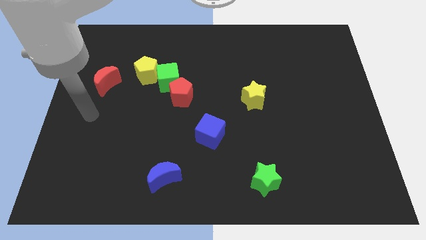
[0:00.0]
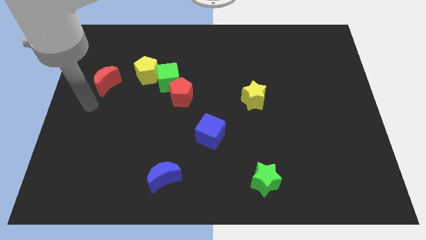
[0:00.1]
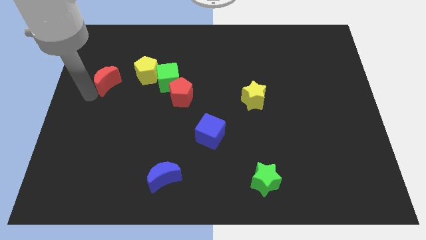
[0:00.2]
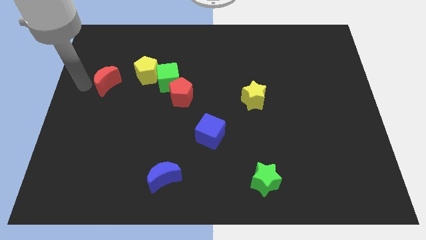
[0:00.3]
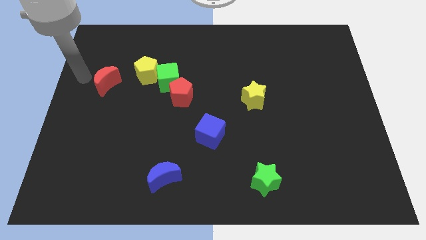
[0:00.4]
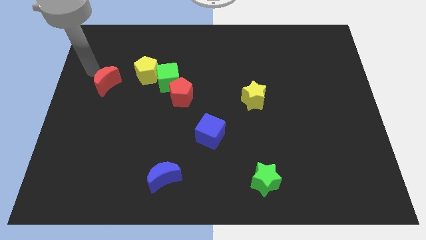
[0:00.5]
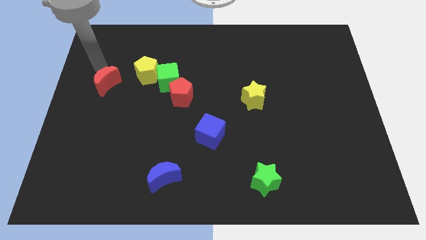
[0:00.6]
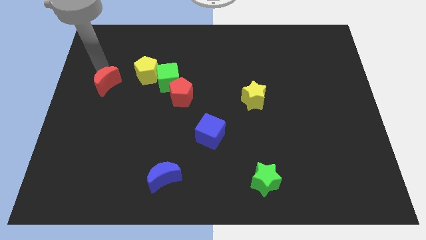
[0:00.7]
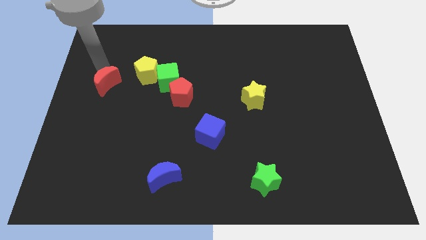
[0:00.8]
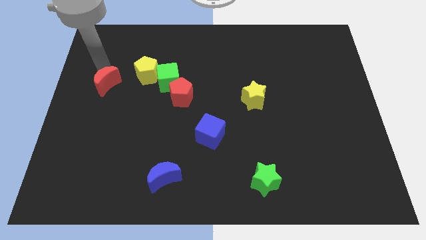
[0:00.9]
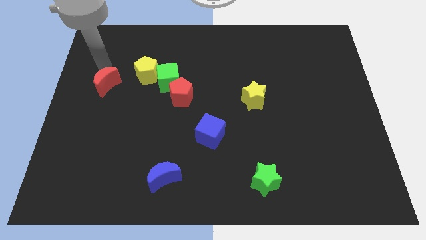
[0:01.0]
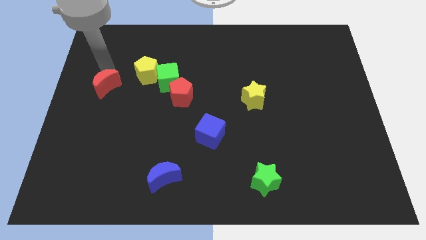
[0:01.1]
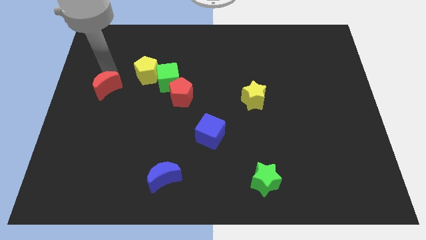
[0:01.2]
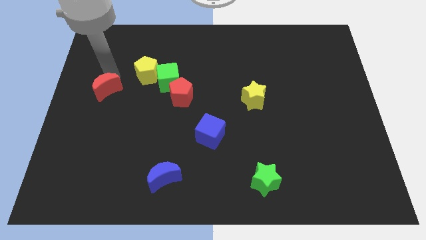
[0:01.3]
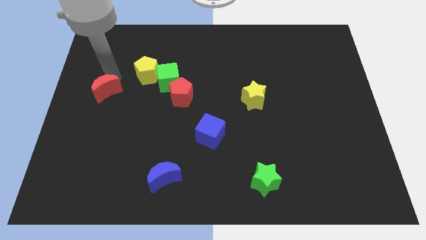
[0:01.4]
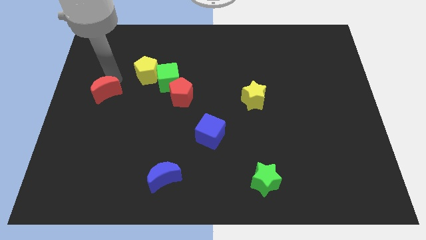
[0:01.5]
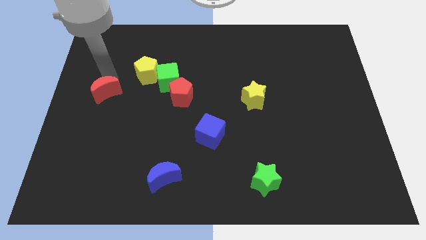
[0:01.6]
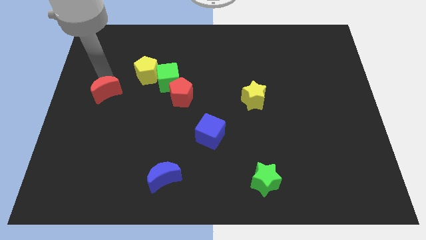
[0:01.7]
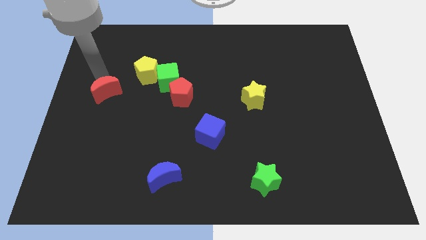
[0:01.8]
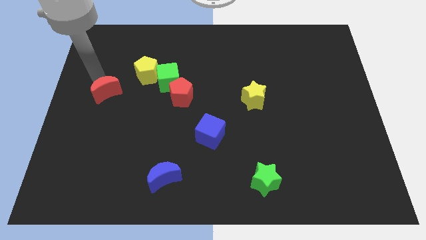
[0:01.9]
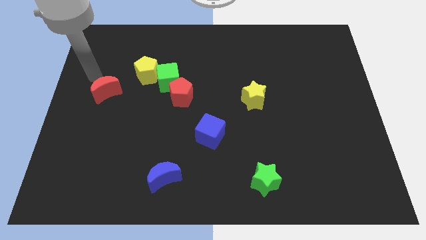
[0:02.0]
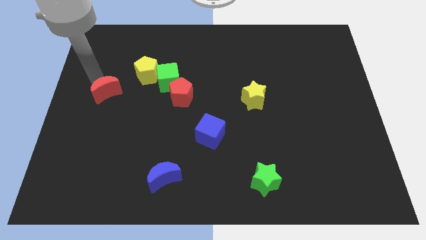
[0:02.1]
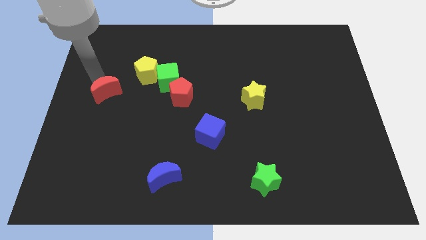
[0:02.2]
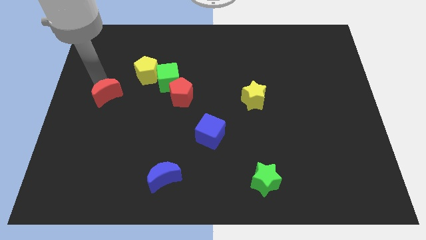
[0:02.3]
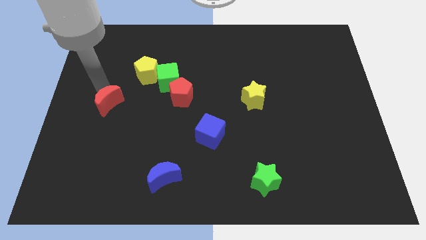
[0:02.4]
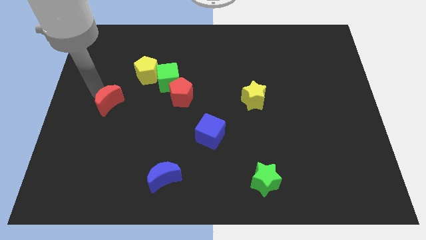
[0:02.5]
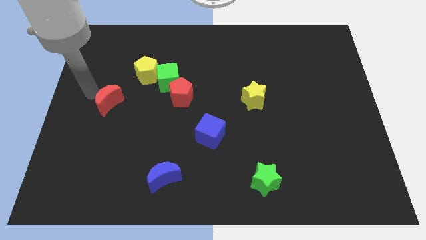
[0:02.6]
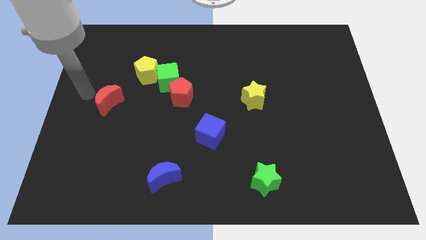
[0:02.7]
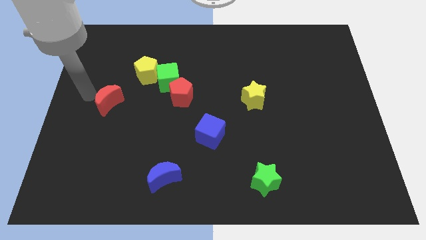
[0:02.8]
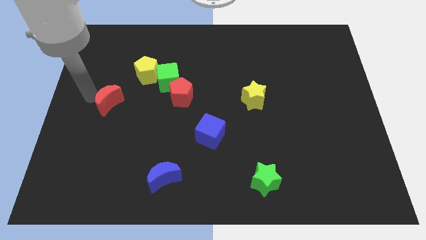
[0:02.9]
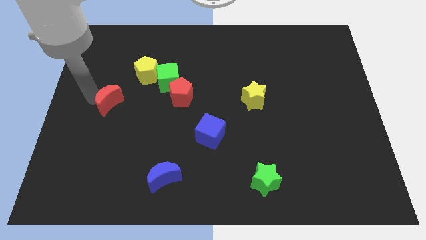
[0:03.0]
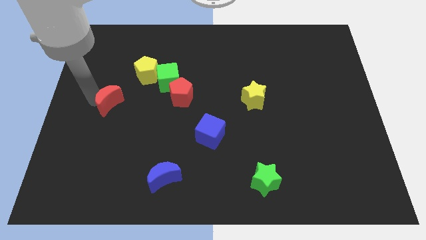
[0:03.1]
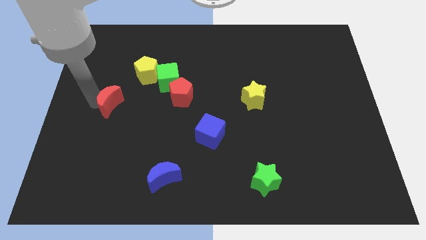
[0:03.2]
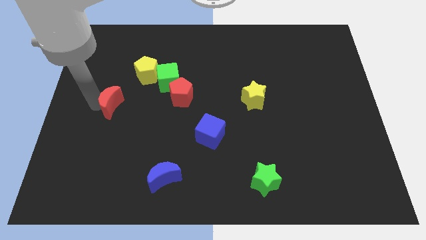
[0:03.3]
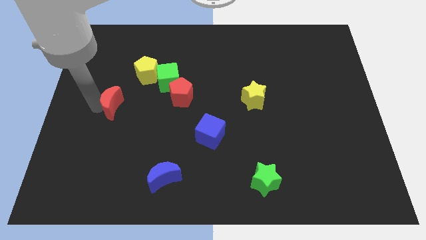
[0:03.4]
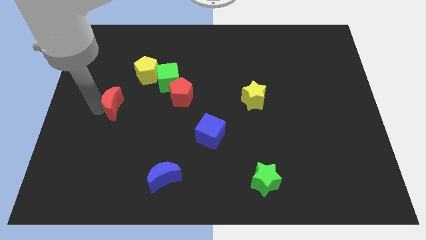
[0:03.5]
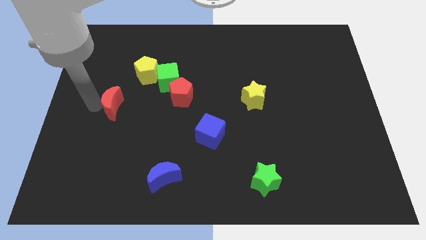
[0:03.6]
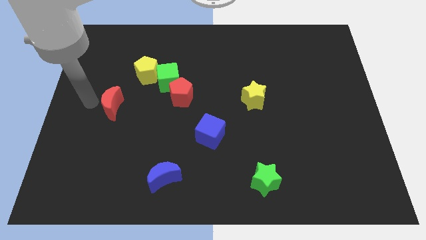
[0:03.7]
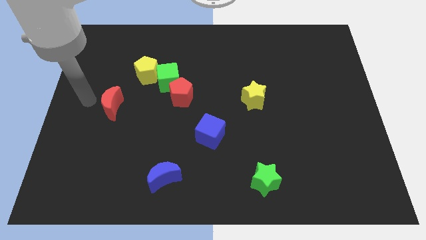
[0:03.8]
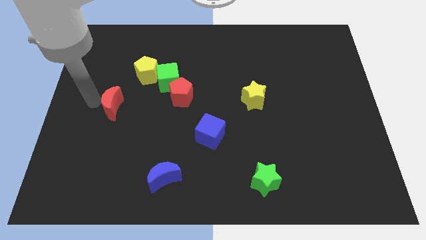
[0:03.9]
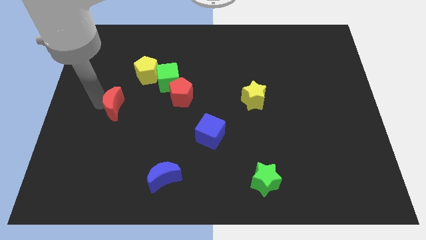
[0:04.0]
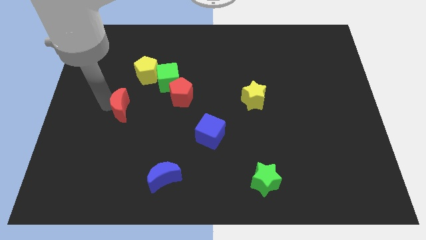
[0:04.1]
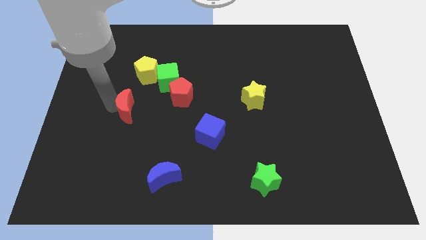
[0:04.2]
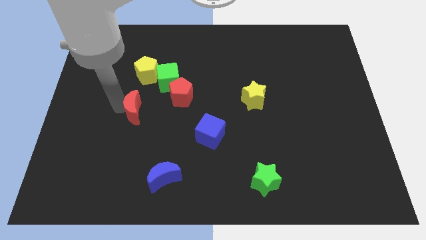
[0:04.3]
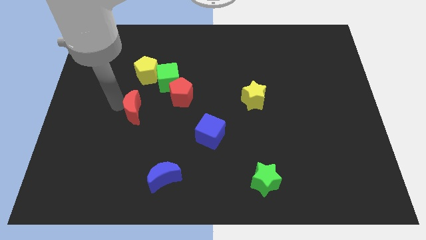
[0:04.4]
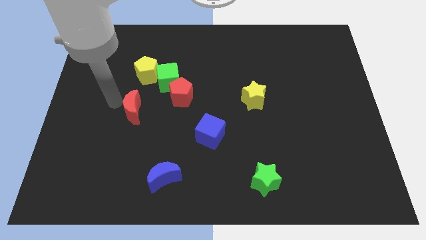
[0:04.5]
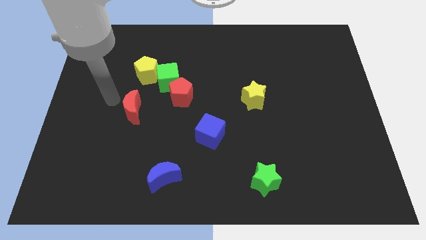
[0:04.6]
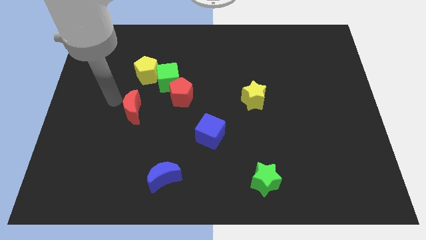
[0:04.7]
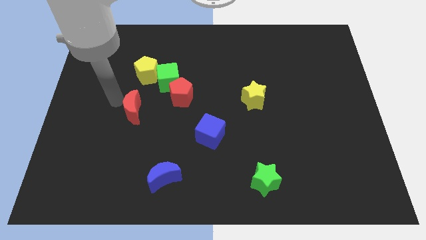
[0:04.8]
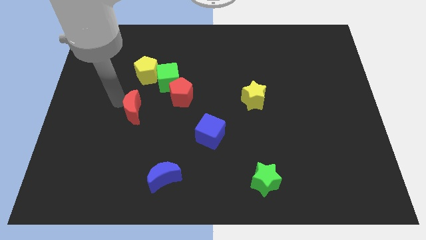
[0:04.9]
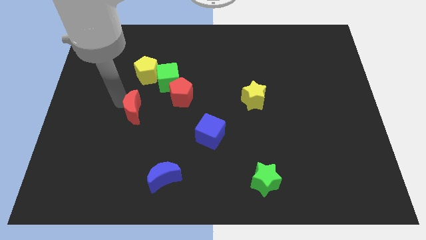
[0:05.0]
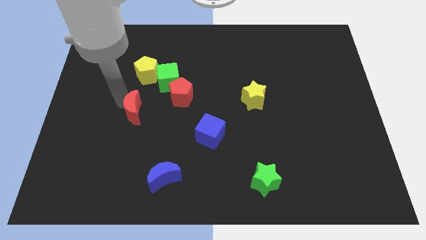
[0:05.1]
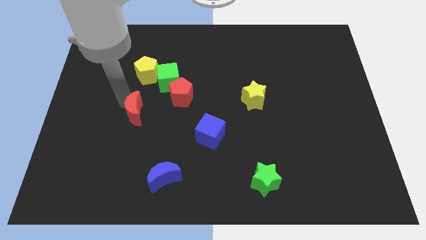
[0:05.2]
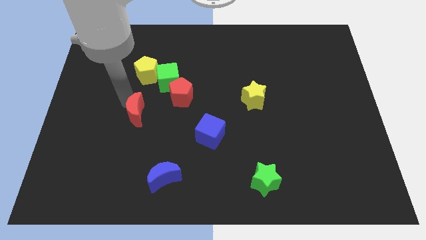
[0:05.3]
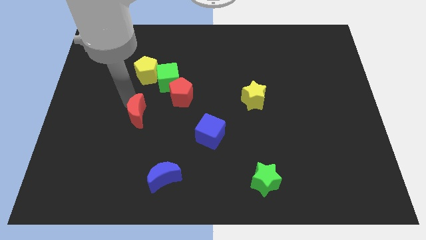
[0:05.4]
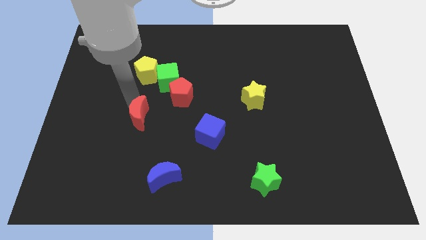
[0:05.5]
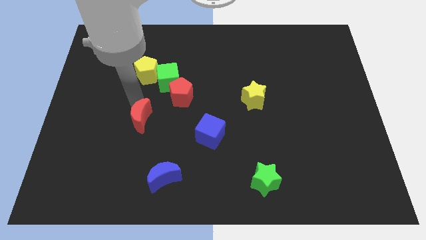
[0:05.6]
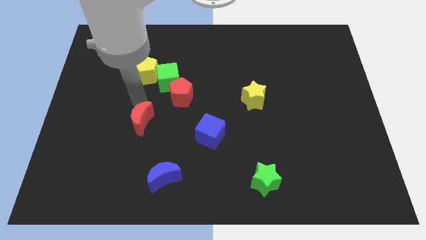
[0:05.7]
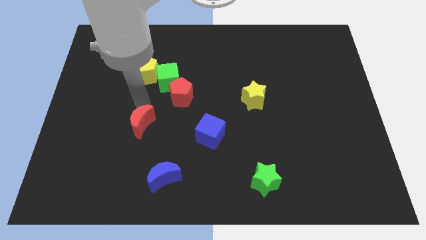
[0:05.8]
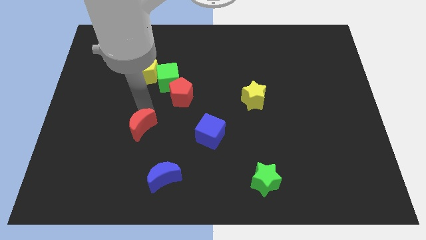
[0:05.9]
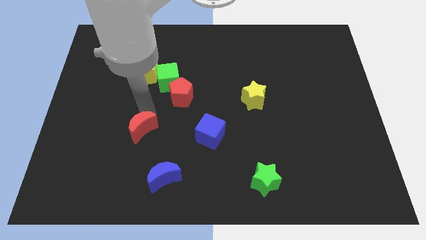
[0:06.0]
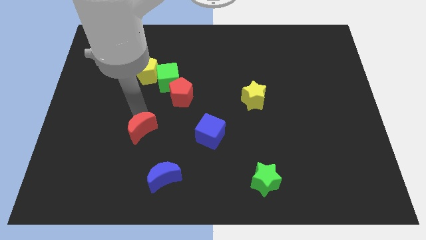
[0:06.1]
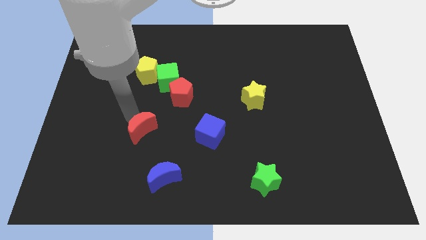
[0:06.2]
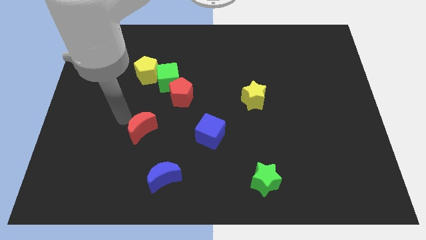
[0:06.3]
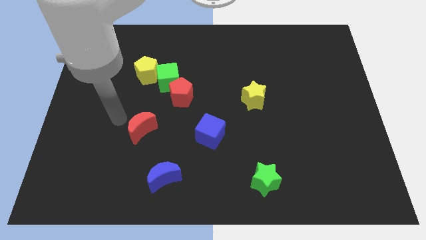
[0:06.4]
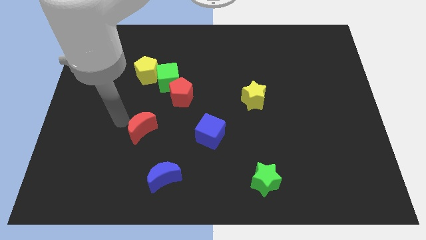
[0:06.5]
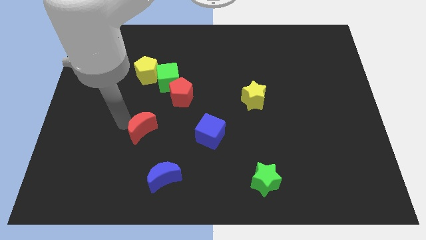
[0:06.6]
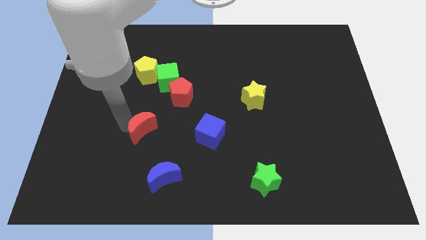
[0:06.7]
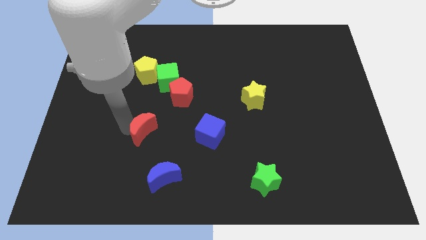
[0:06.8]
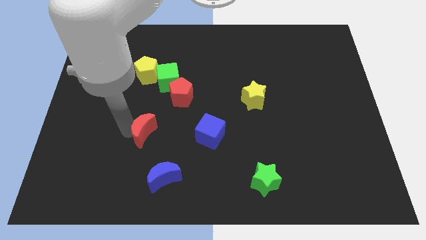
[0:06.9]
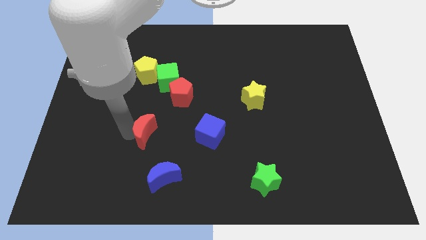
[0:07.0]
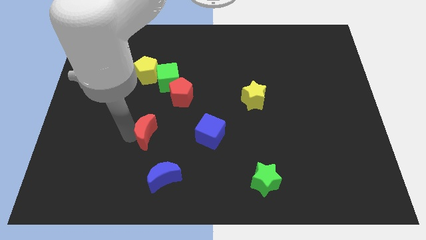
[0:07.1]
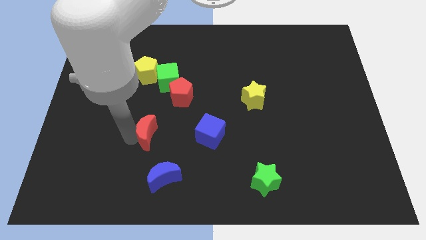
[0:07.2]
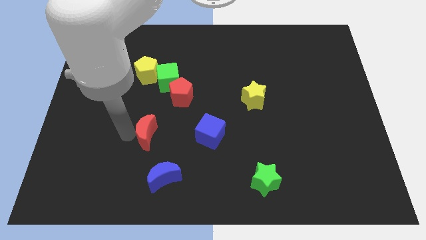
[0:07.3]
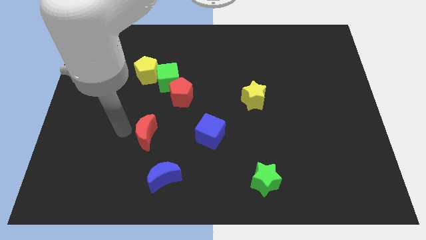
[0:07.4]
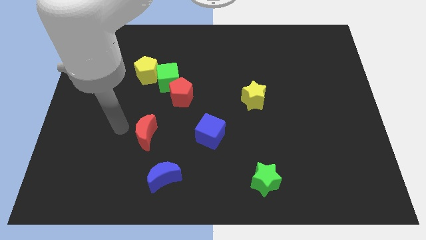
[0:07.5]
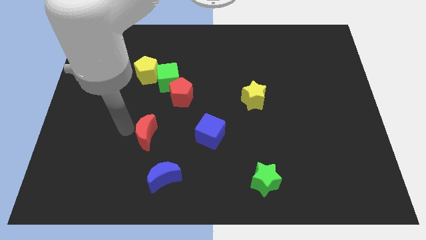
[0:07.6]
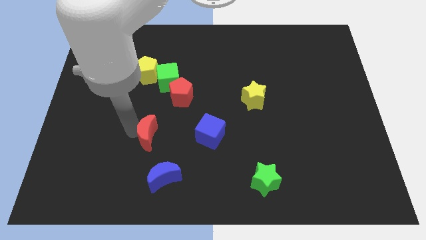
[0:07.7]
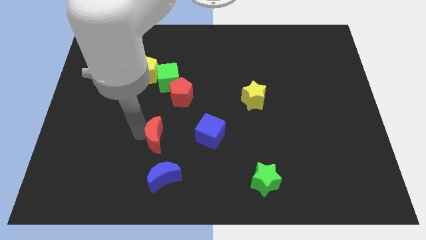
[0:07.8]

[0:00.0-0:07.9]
slide the red moon diagonally downwards and to the right
